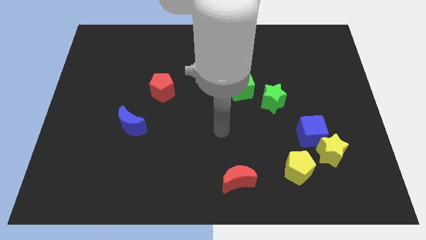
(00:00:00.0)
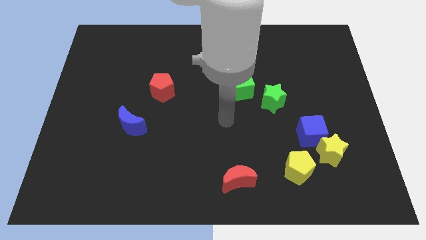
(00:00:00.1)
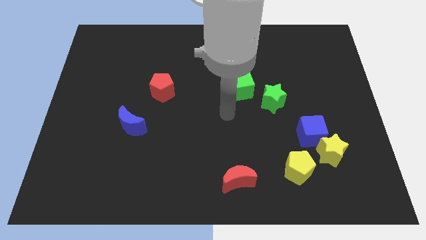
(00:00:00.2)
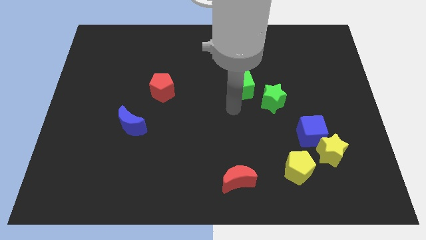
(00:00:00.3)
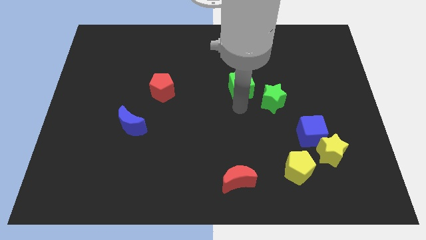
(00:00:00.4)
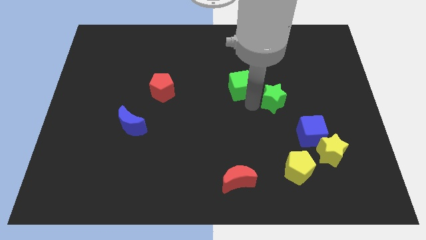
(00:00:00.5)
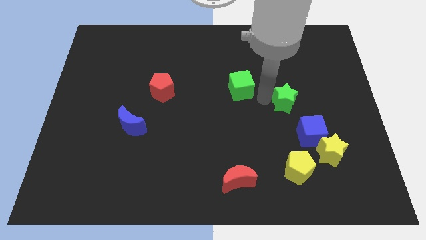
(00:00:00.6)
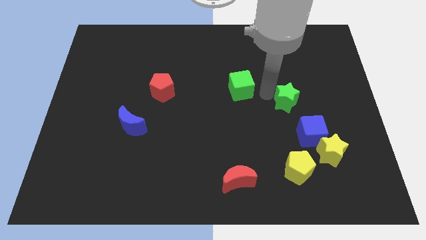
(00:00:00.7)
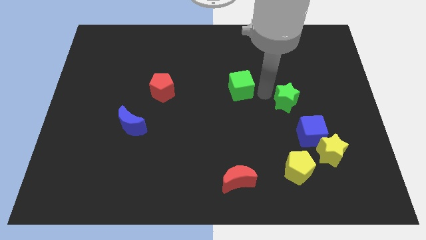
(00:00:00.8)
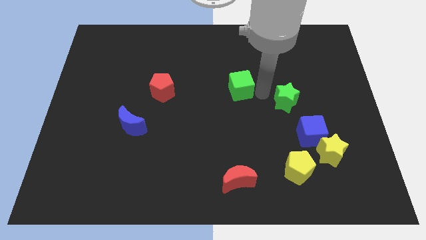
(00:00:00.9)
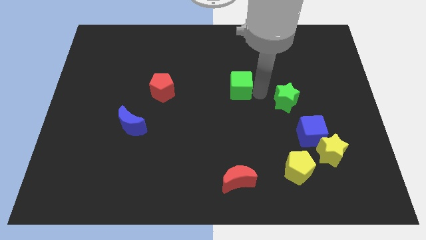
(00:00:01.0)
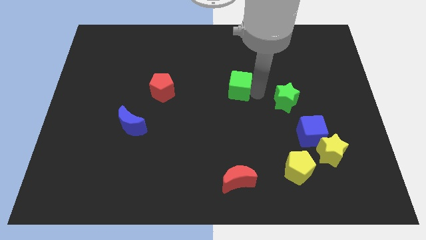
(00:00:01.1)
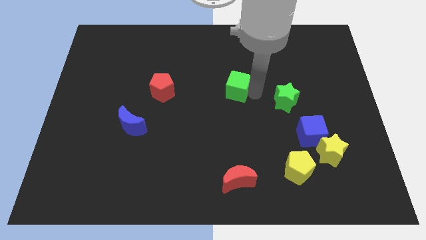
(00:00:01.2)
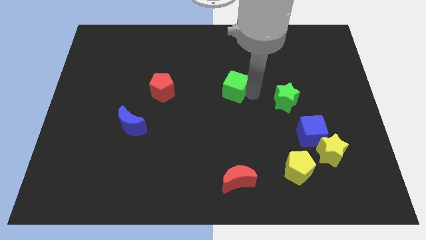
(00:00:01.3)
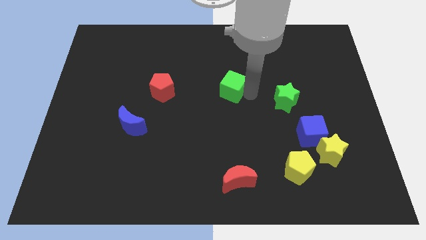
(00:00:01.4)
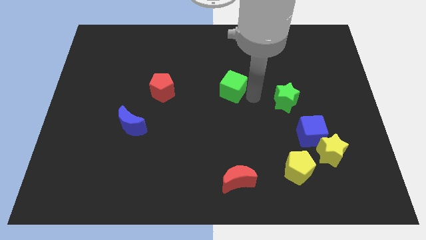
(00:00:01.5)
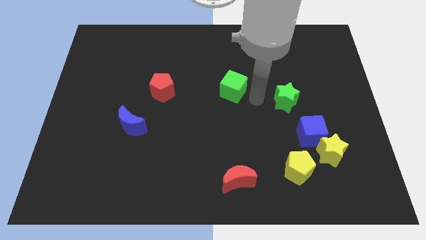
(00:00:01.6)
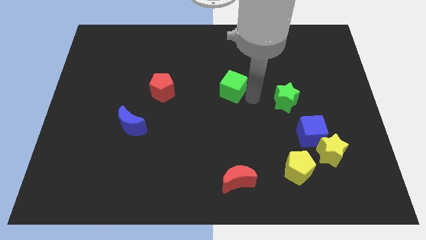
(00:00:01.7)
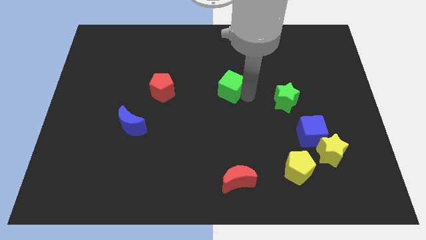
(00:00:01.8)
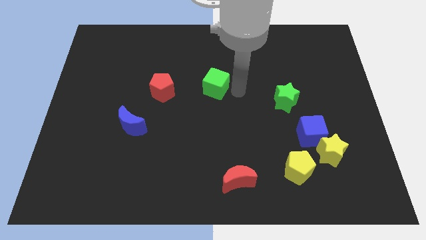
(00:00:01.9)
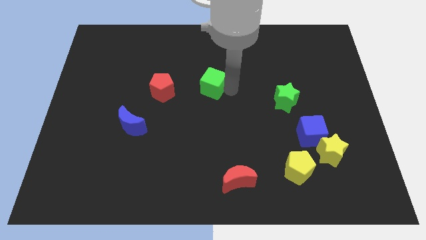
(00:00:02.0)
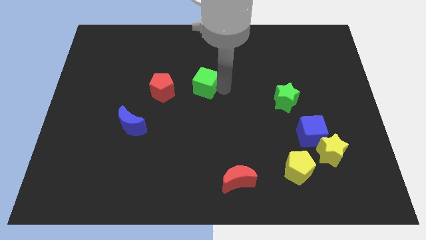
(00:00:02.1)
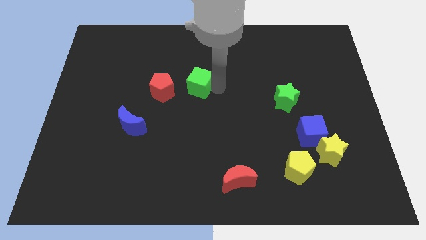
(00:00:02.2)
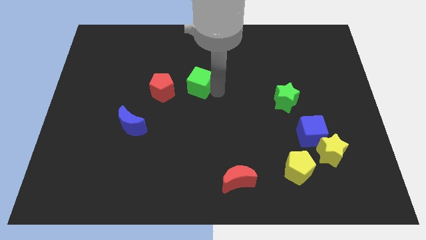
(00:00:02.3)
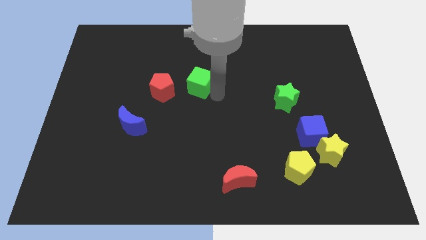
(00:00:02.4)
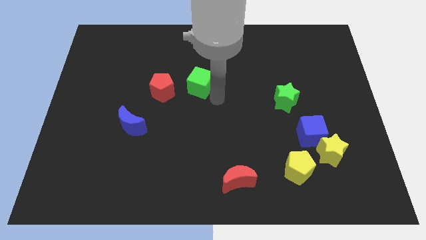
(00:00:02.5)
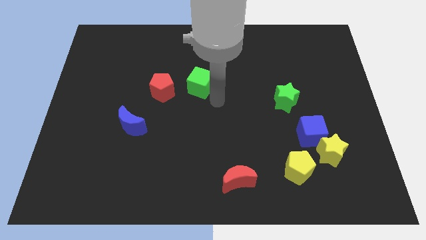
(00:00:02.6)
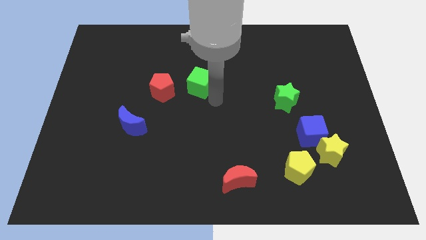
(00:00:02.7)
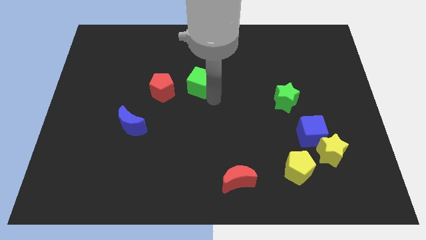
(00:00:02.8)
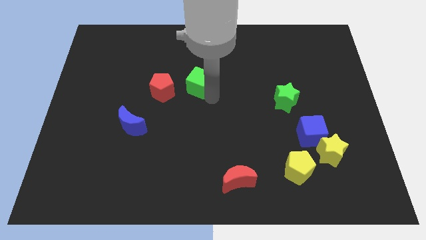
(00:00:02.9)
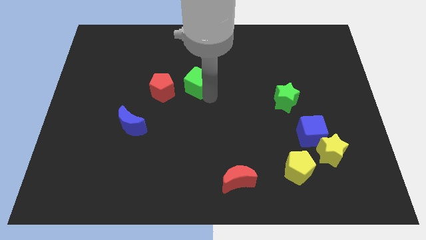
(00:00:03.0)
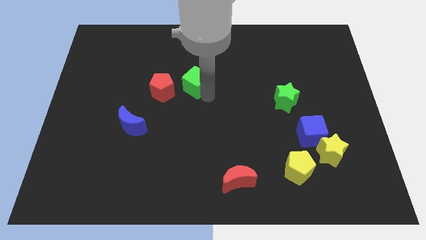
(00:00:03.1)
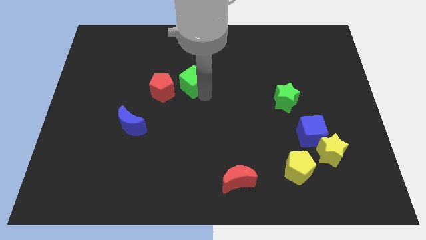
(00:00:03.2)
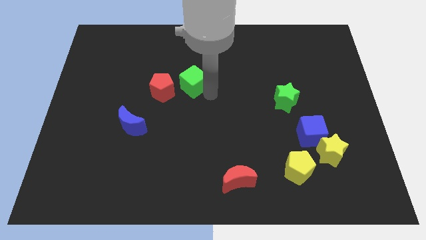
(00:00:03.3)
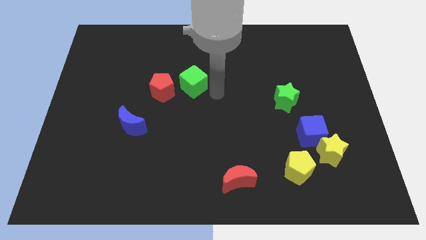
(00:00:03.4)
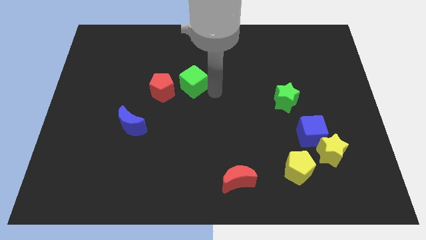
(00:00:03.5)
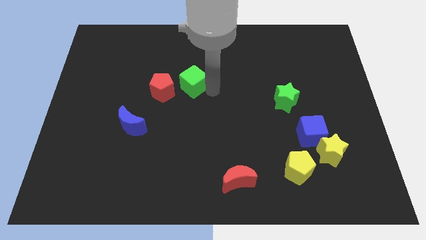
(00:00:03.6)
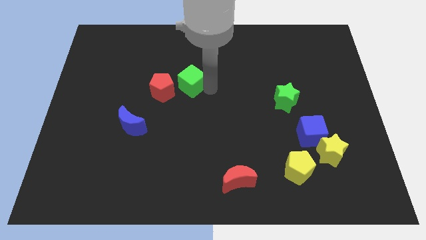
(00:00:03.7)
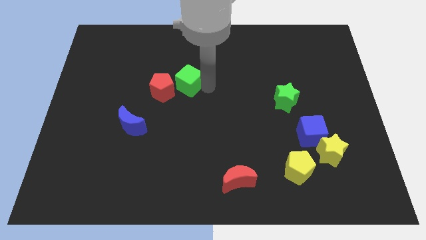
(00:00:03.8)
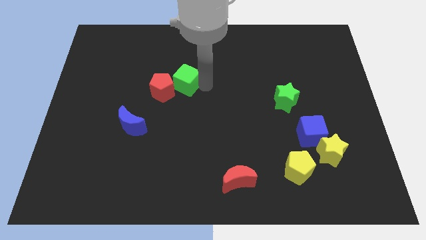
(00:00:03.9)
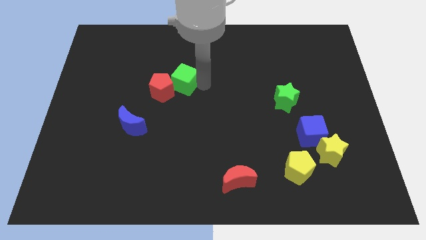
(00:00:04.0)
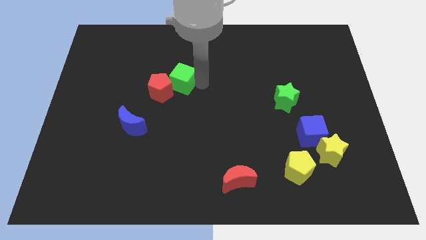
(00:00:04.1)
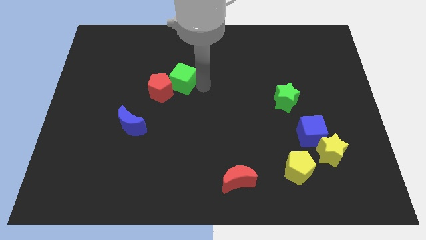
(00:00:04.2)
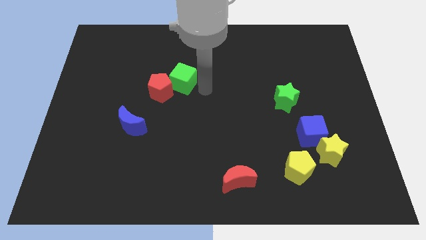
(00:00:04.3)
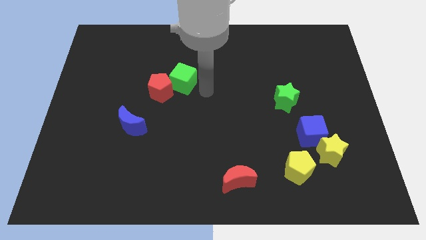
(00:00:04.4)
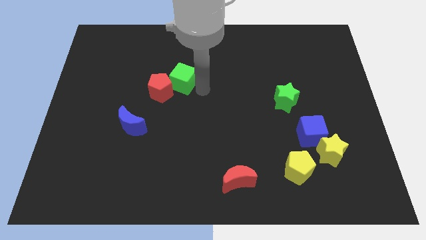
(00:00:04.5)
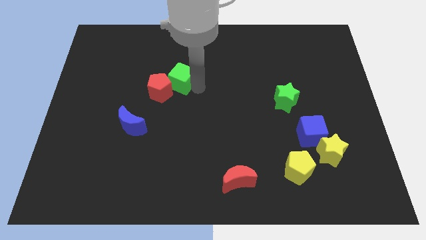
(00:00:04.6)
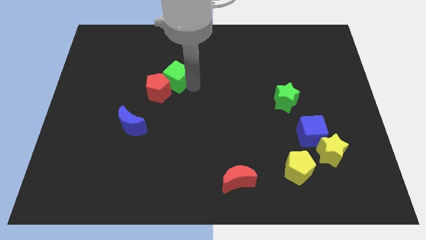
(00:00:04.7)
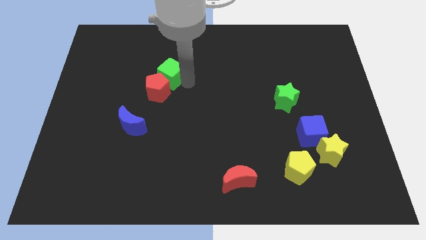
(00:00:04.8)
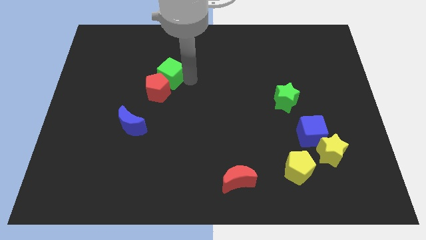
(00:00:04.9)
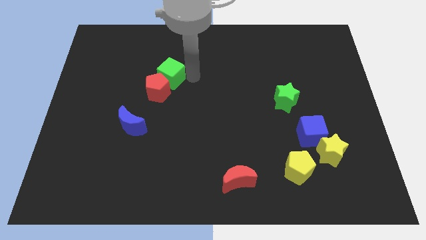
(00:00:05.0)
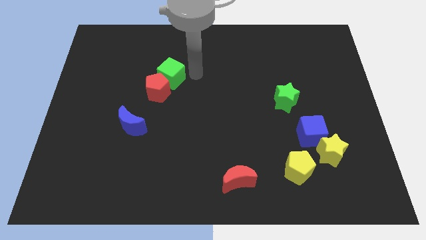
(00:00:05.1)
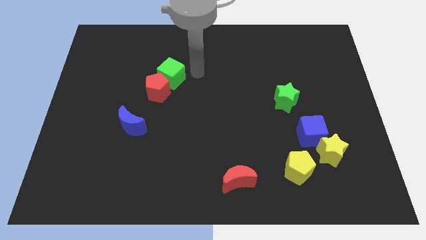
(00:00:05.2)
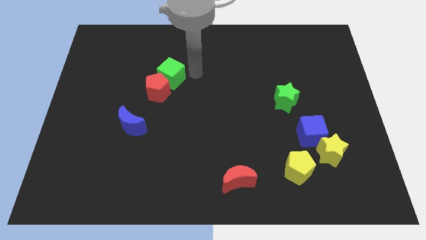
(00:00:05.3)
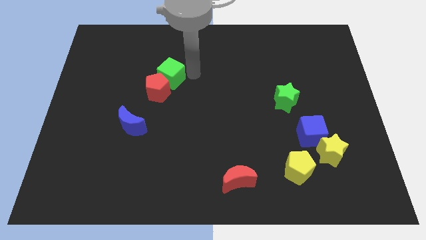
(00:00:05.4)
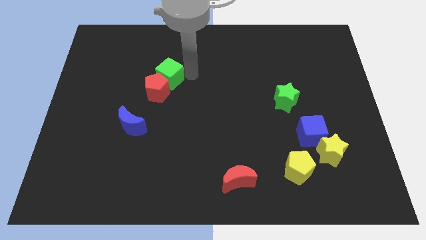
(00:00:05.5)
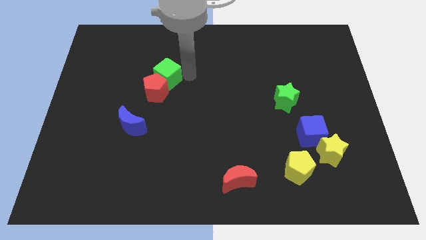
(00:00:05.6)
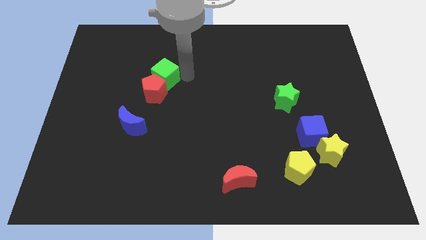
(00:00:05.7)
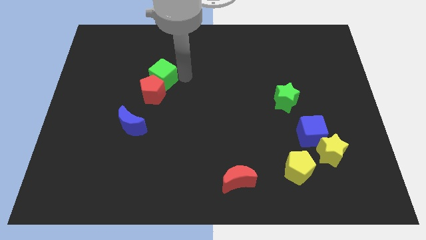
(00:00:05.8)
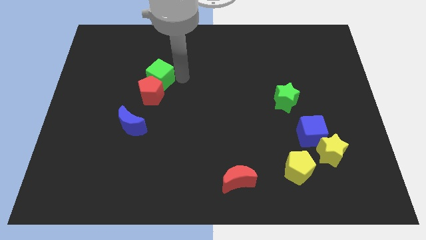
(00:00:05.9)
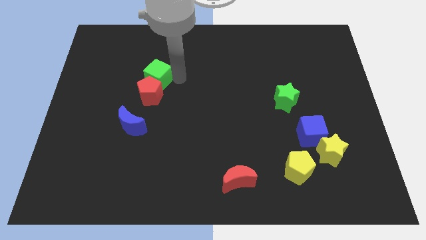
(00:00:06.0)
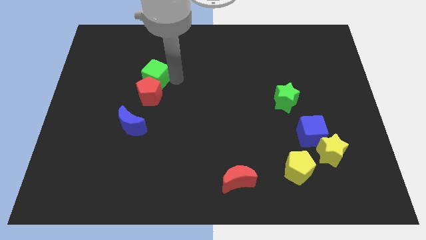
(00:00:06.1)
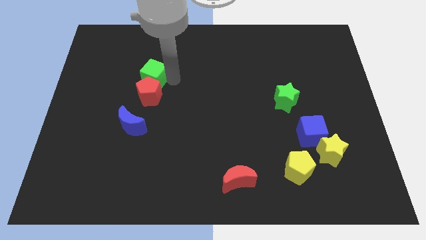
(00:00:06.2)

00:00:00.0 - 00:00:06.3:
slide the green cube above the blue moon

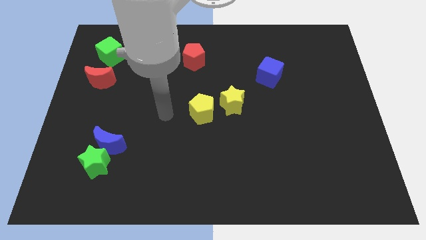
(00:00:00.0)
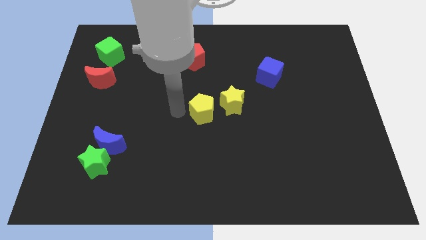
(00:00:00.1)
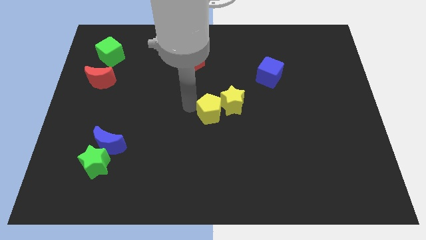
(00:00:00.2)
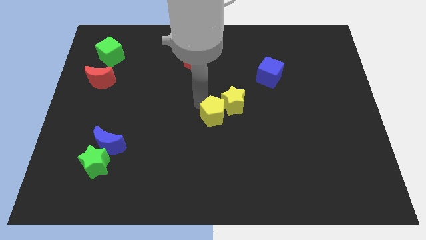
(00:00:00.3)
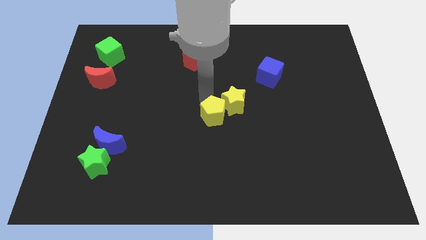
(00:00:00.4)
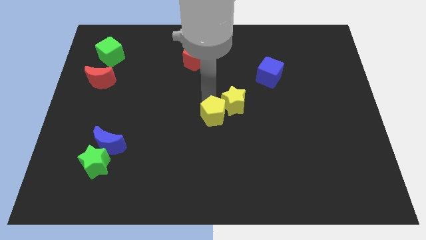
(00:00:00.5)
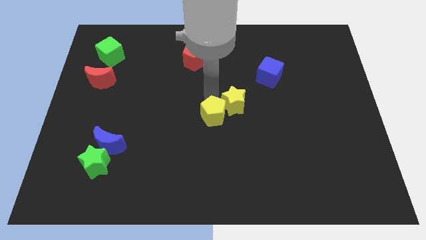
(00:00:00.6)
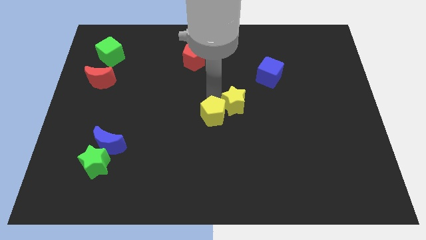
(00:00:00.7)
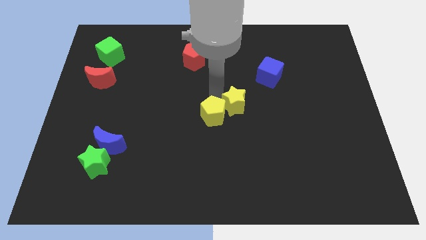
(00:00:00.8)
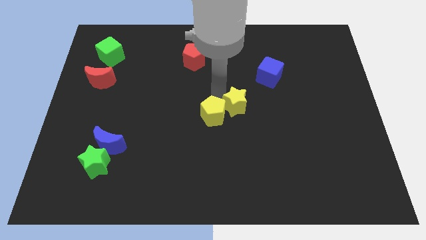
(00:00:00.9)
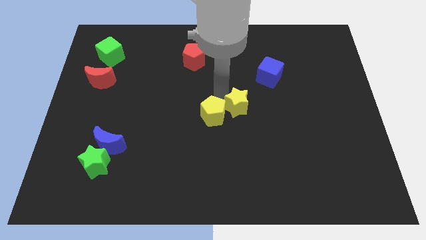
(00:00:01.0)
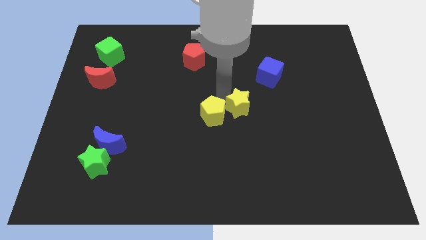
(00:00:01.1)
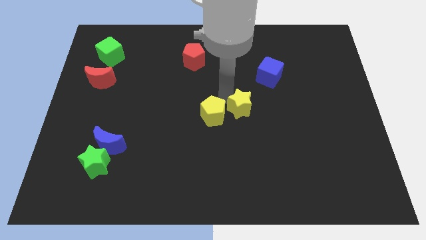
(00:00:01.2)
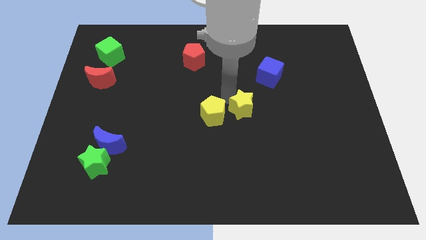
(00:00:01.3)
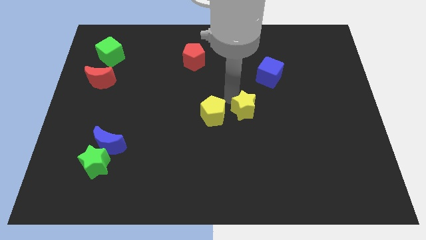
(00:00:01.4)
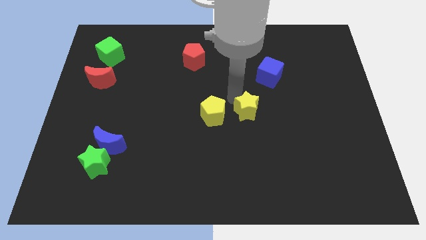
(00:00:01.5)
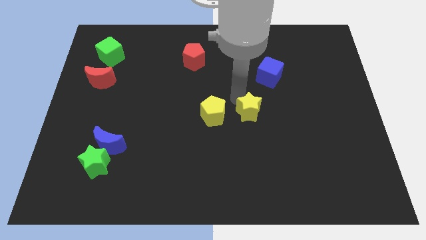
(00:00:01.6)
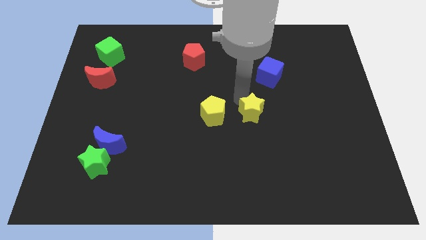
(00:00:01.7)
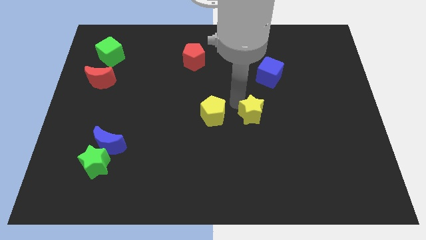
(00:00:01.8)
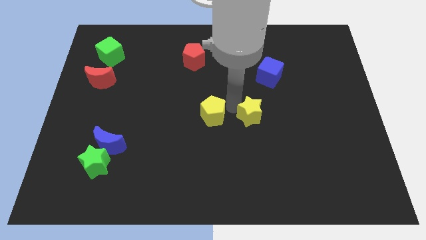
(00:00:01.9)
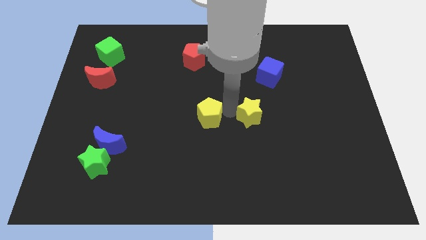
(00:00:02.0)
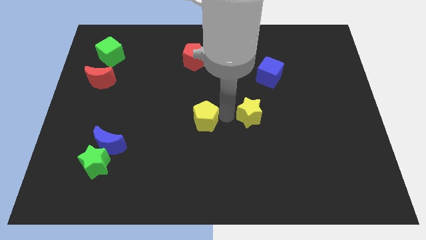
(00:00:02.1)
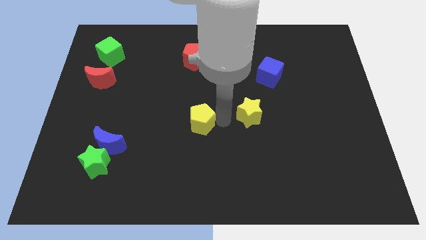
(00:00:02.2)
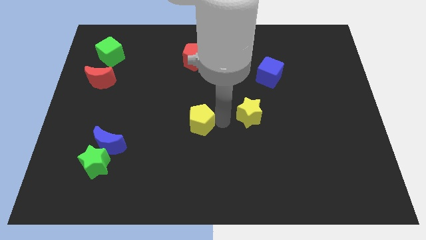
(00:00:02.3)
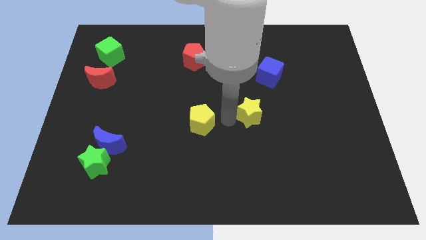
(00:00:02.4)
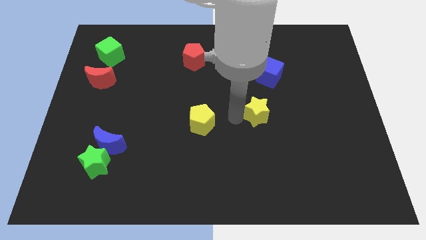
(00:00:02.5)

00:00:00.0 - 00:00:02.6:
push the yellow star below the blue cube
